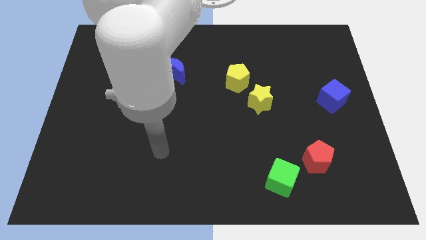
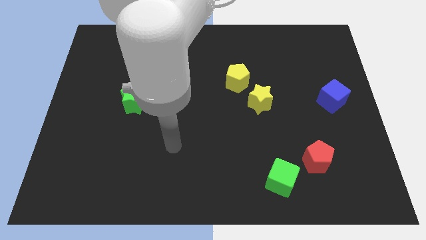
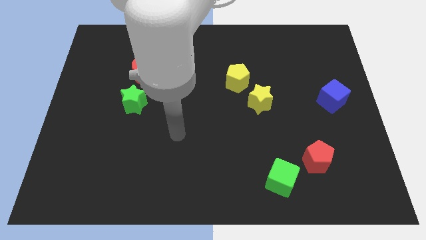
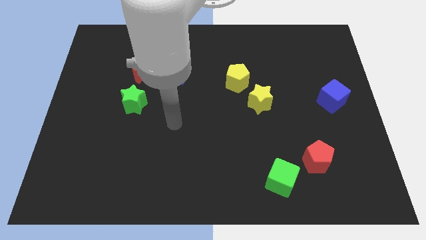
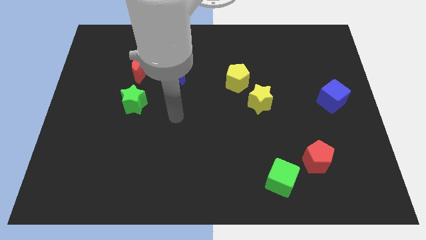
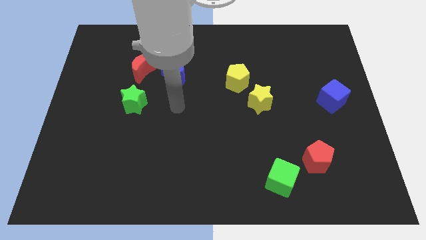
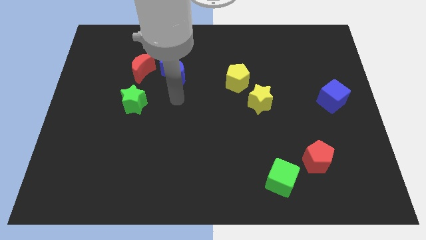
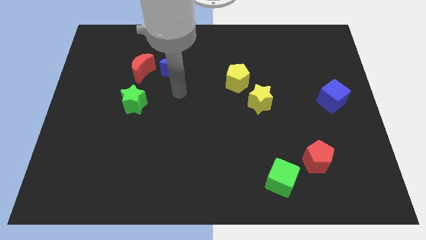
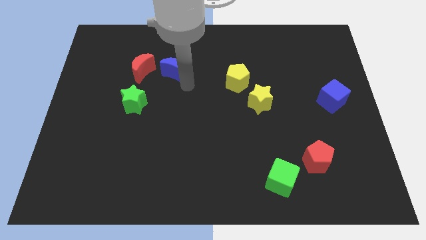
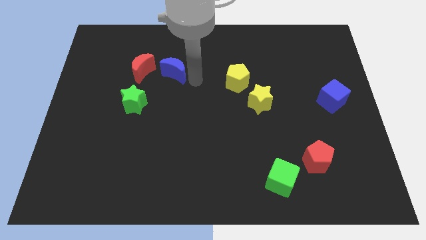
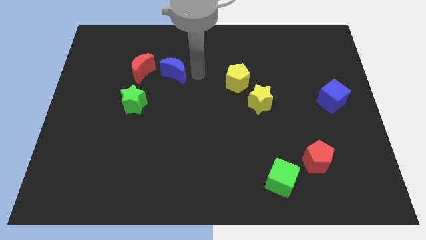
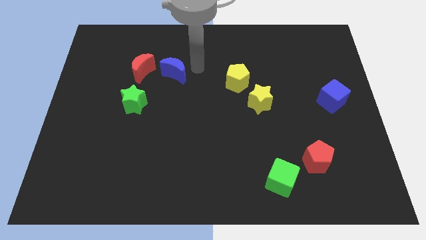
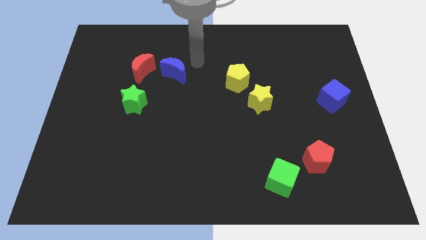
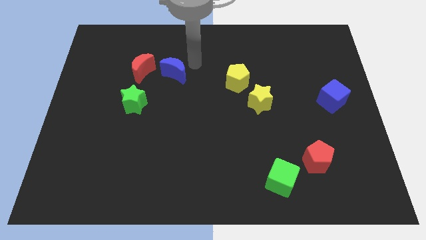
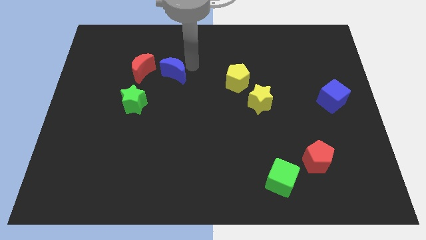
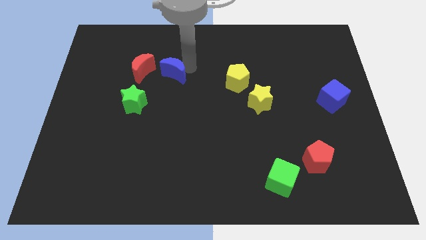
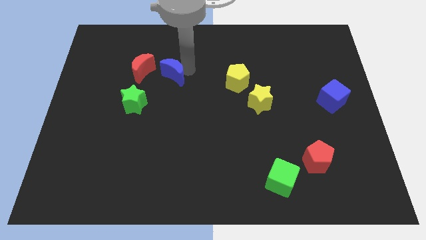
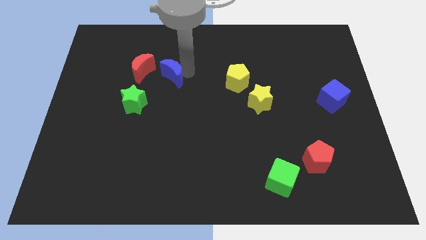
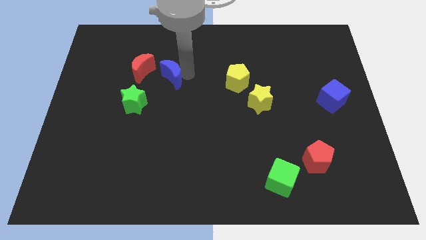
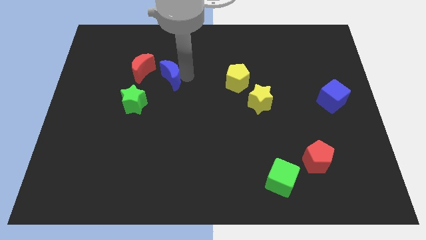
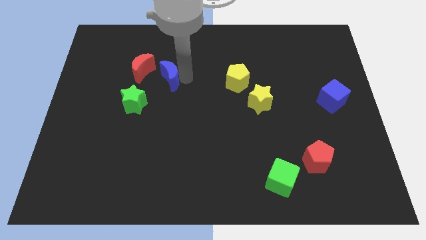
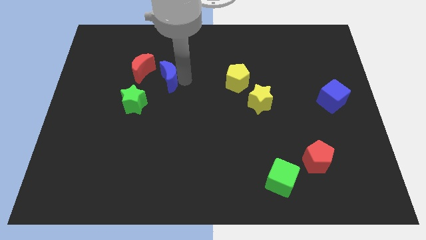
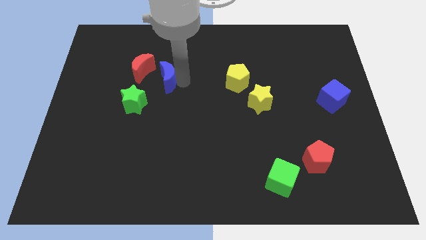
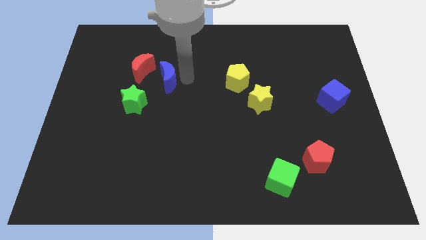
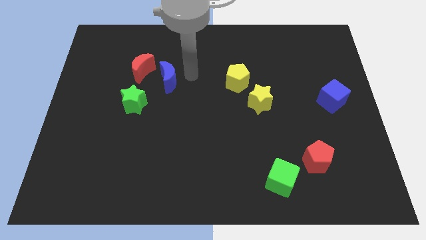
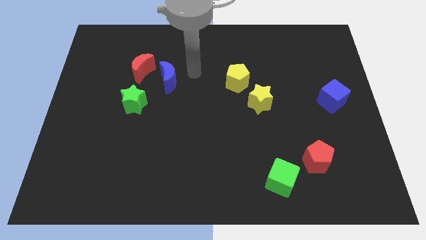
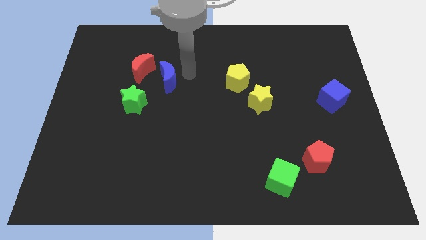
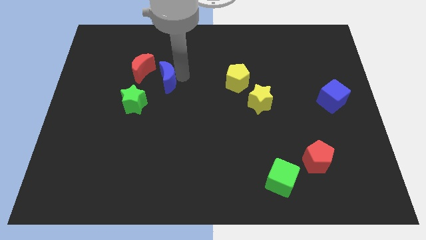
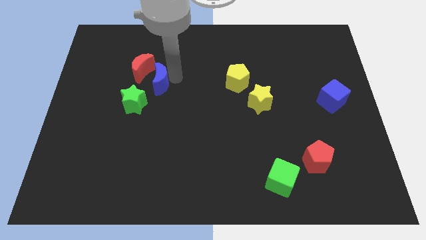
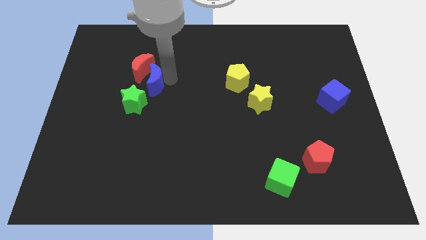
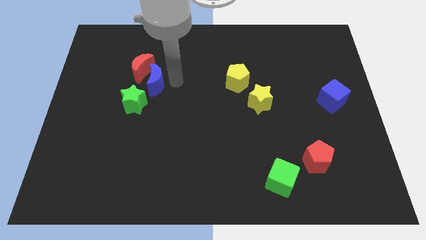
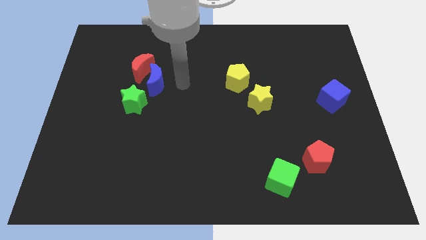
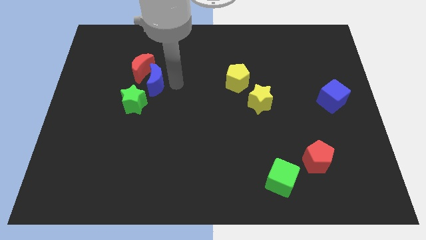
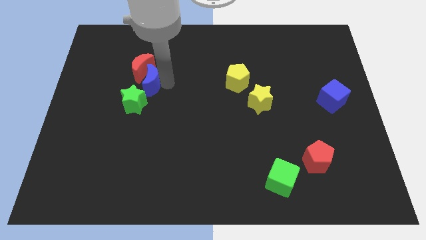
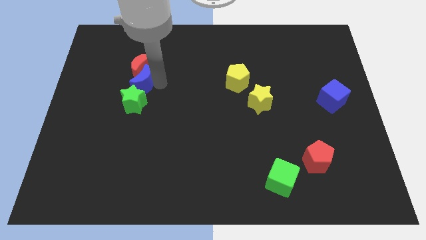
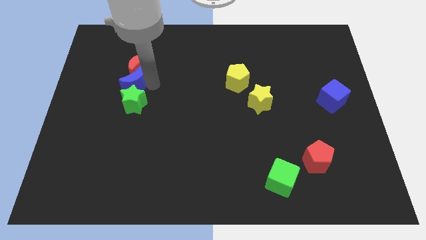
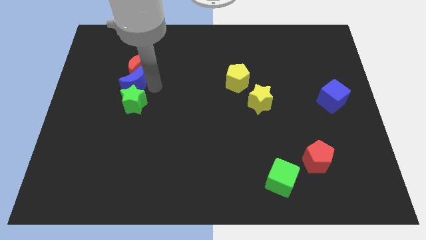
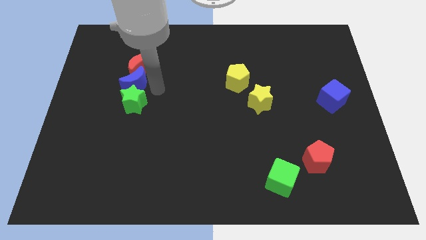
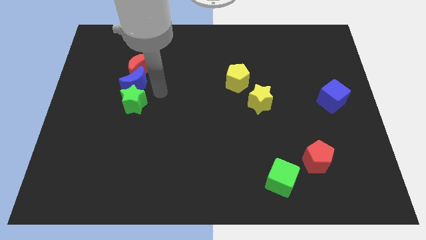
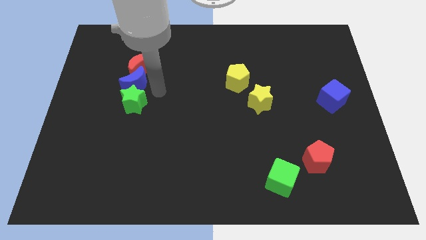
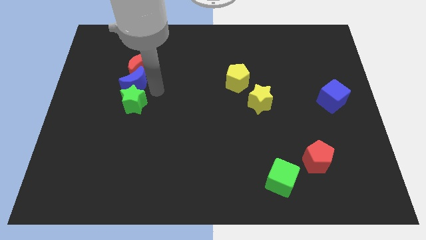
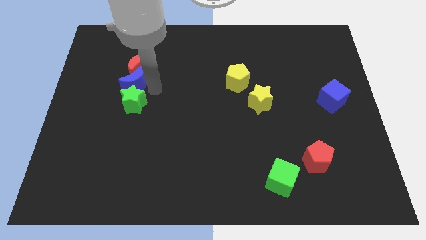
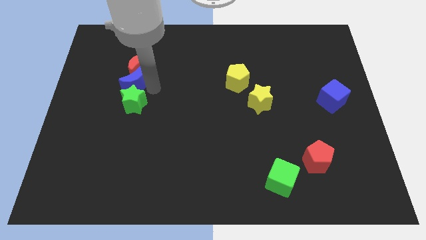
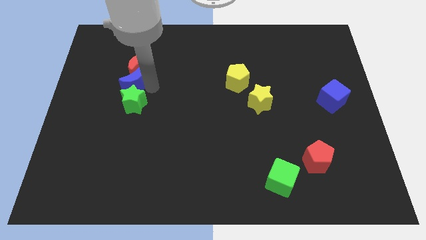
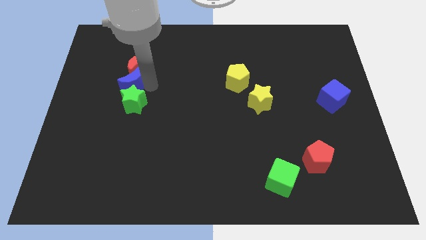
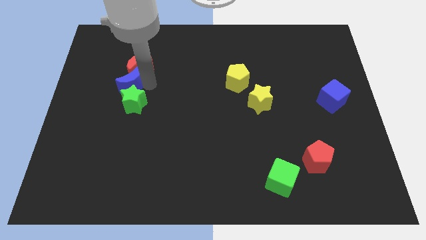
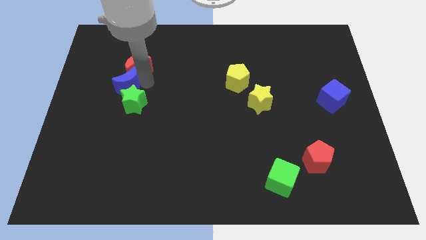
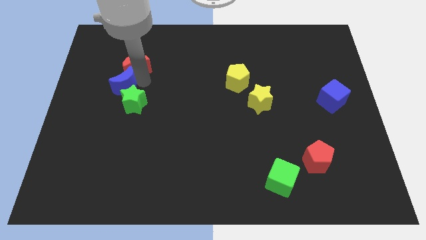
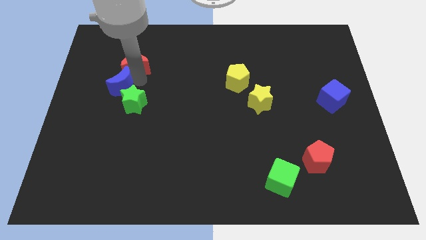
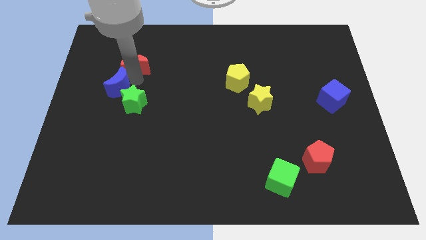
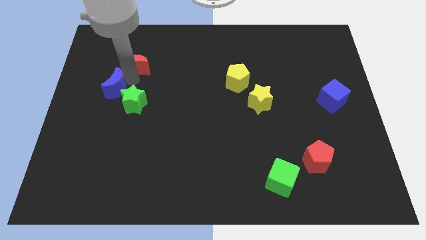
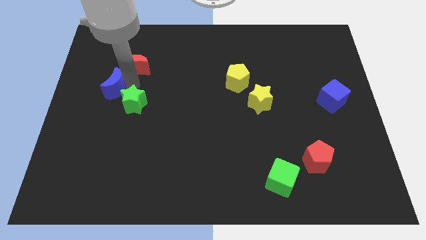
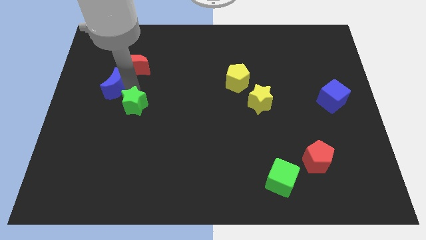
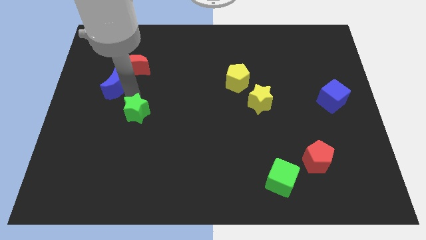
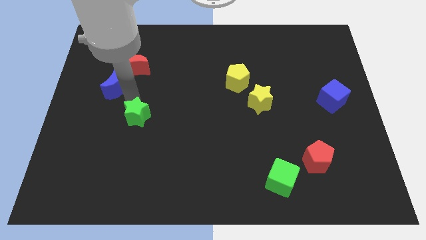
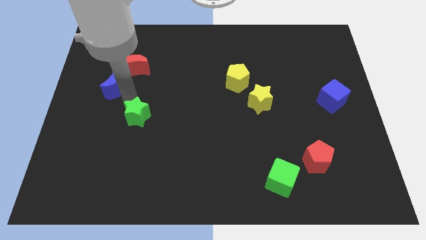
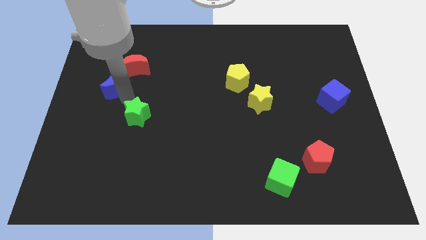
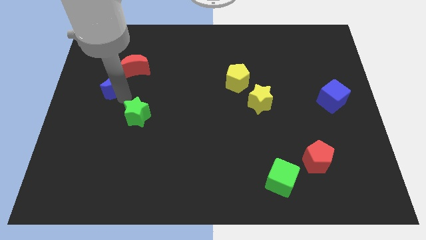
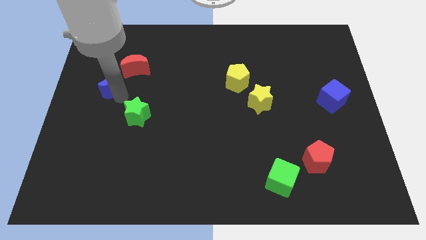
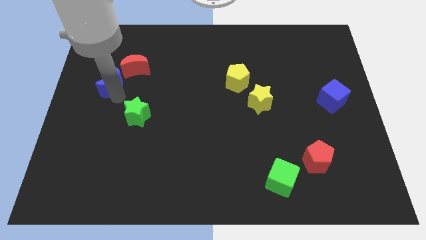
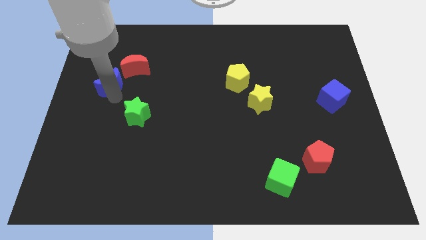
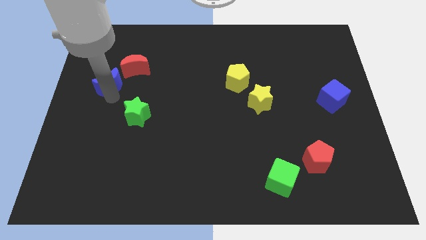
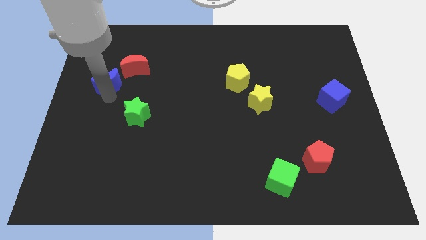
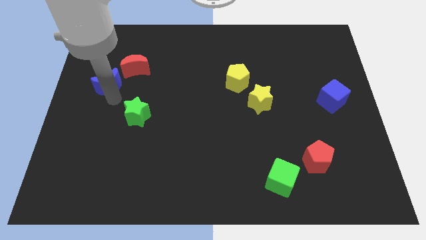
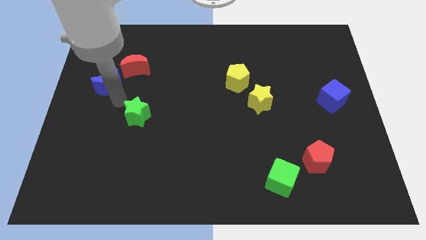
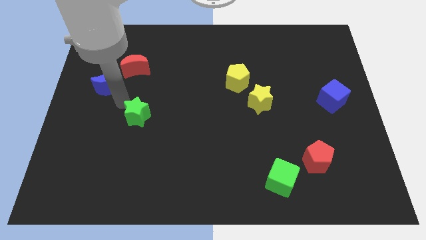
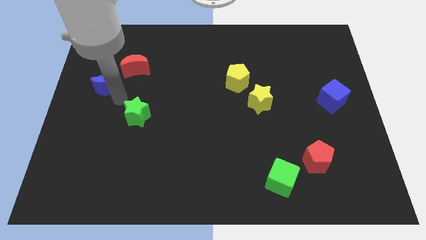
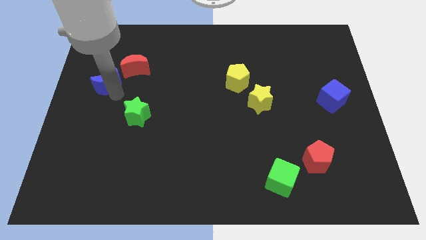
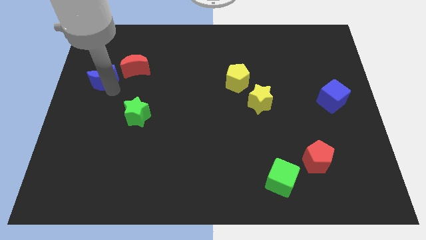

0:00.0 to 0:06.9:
slide the blue moon to the left side of the red moon
